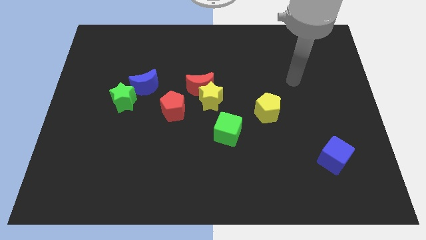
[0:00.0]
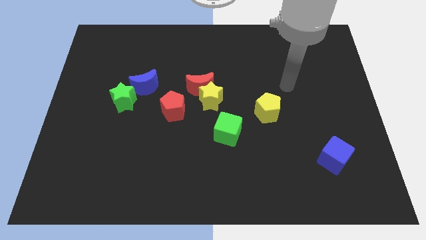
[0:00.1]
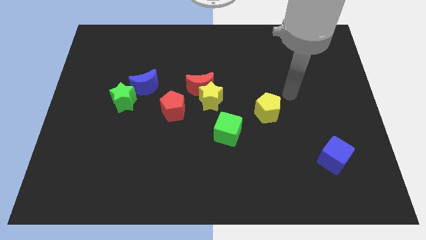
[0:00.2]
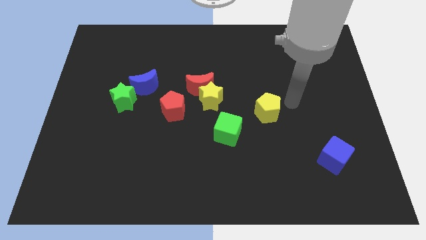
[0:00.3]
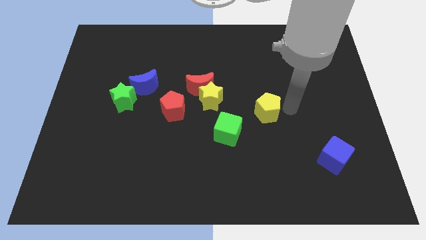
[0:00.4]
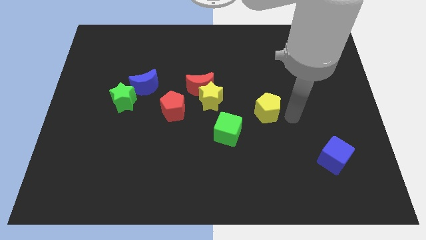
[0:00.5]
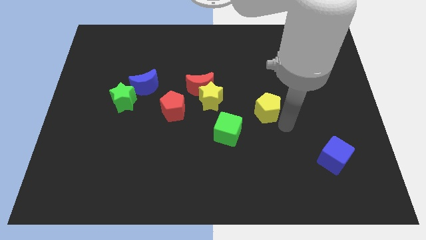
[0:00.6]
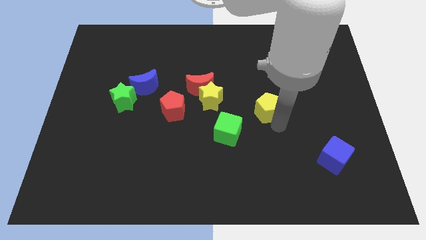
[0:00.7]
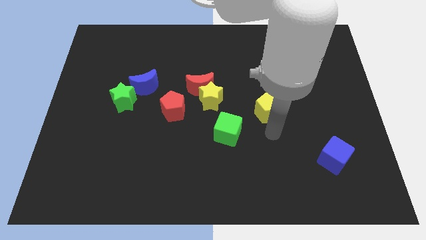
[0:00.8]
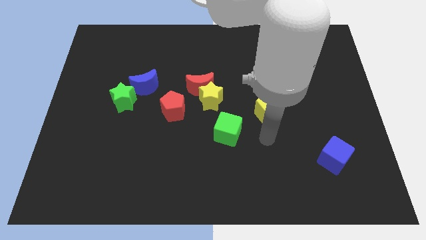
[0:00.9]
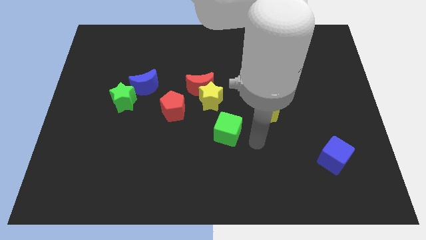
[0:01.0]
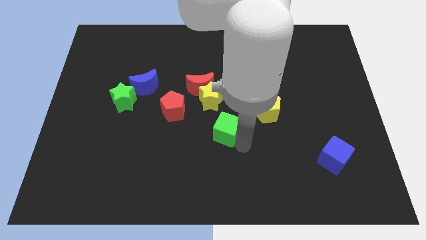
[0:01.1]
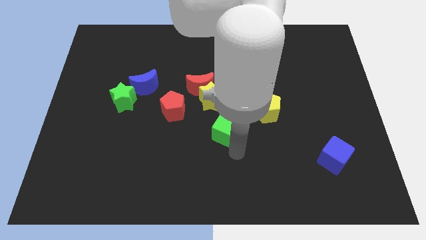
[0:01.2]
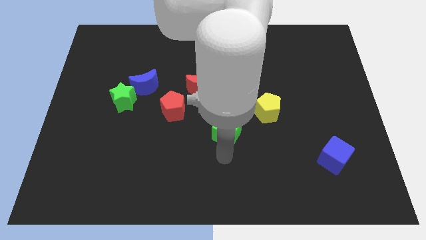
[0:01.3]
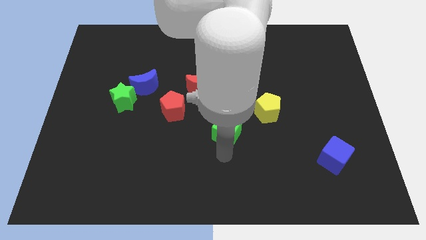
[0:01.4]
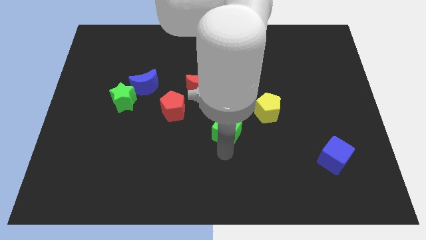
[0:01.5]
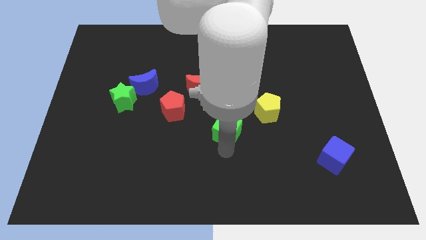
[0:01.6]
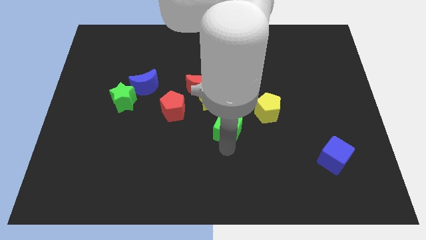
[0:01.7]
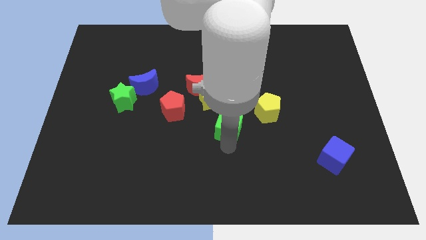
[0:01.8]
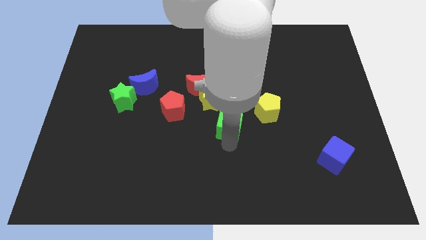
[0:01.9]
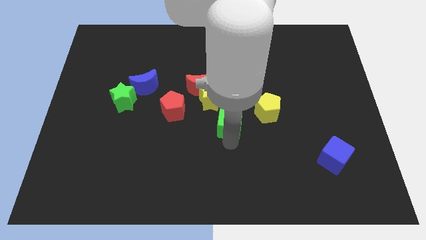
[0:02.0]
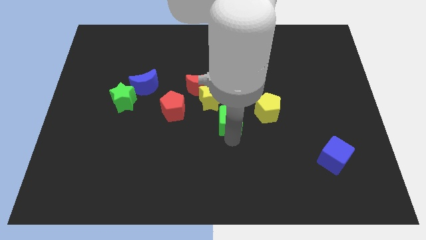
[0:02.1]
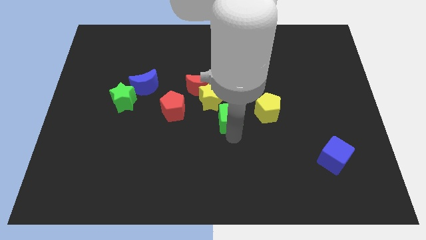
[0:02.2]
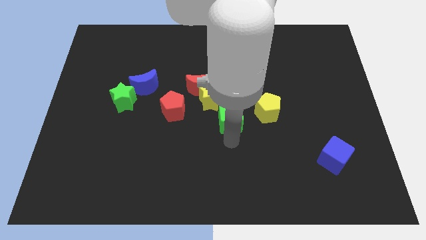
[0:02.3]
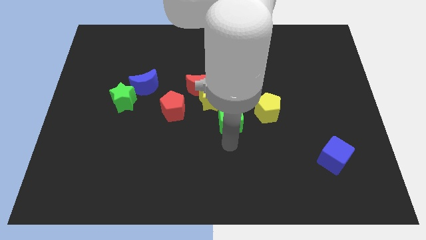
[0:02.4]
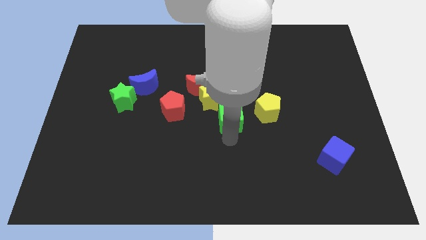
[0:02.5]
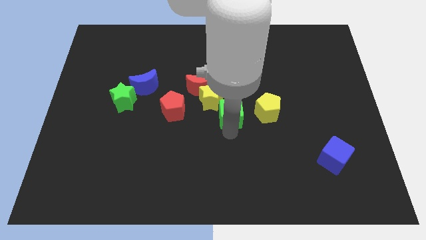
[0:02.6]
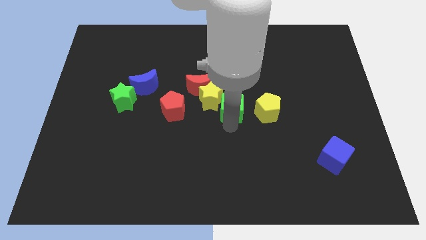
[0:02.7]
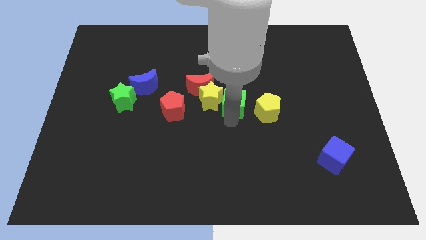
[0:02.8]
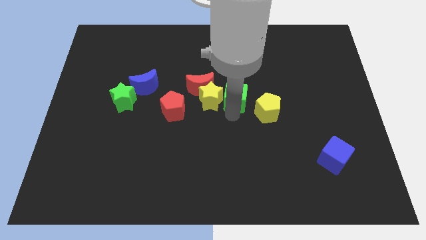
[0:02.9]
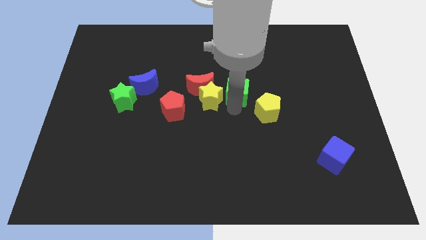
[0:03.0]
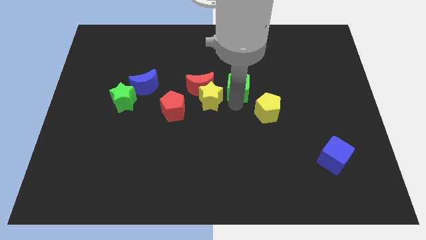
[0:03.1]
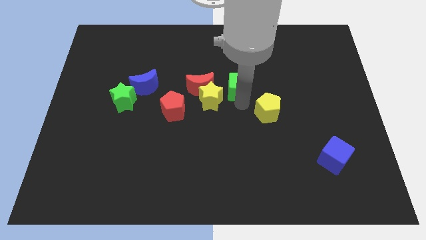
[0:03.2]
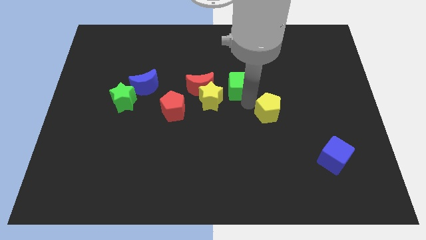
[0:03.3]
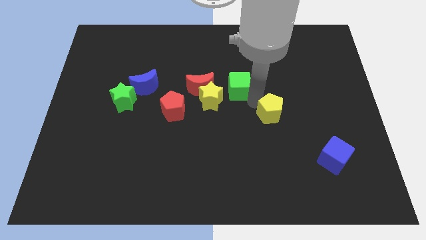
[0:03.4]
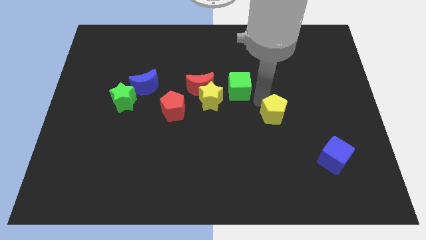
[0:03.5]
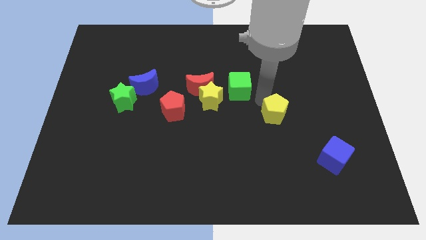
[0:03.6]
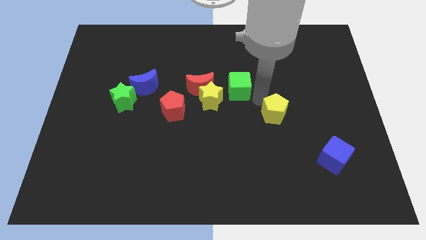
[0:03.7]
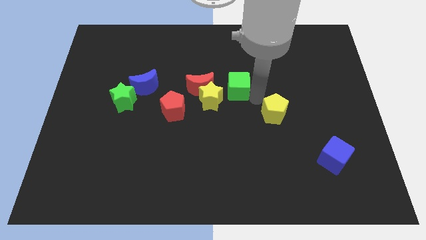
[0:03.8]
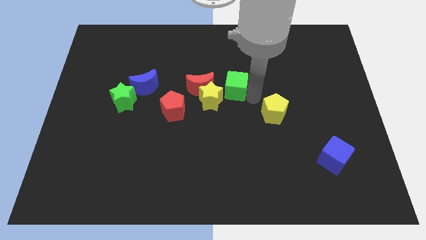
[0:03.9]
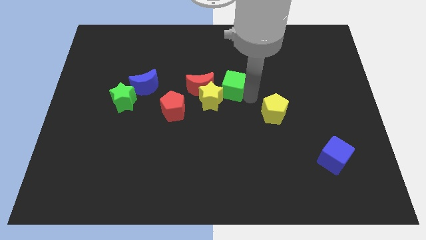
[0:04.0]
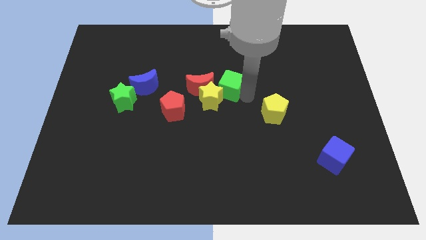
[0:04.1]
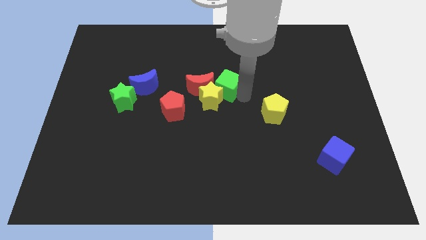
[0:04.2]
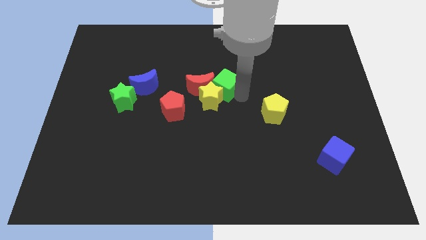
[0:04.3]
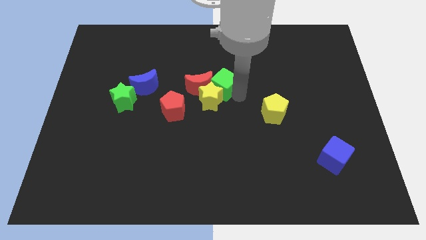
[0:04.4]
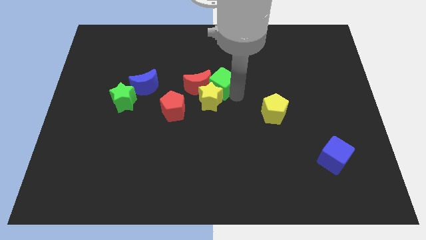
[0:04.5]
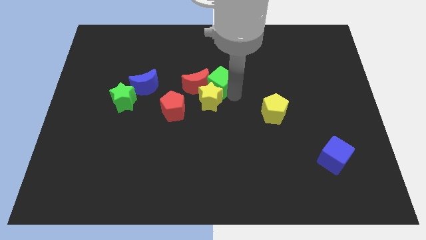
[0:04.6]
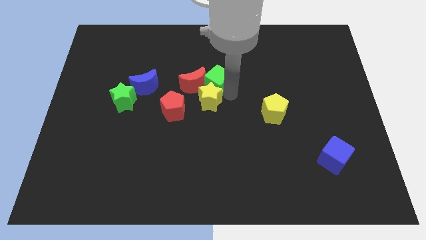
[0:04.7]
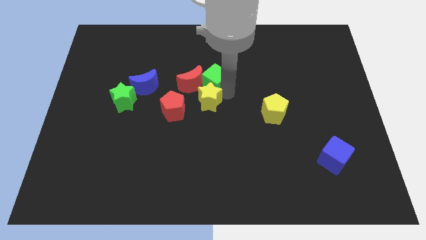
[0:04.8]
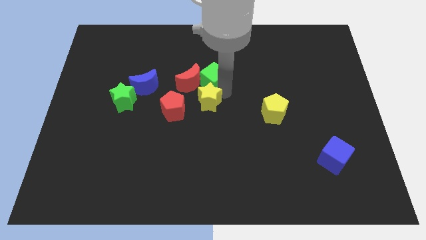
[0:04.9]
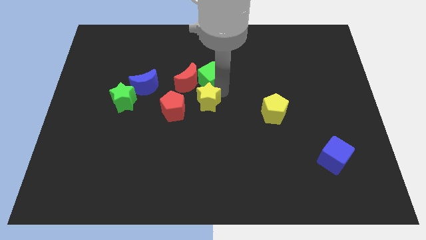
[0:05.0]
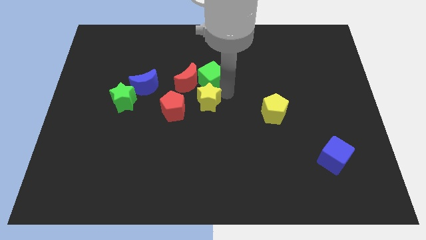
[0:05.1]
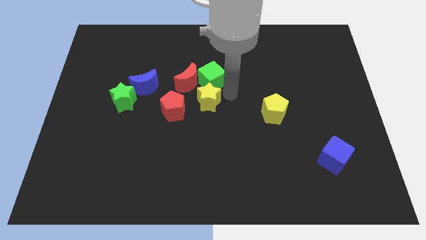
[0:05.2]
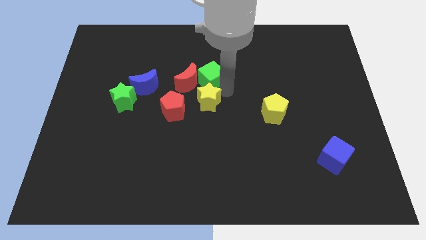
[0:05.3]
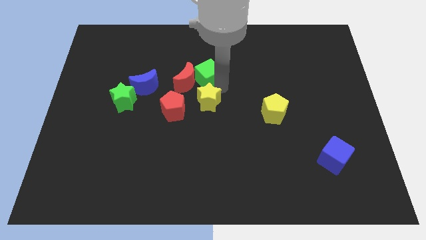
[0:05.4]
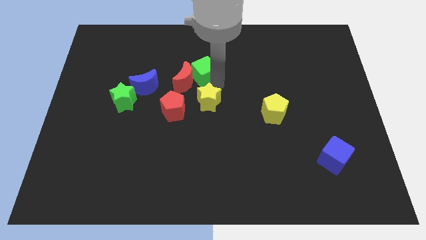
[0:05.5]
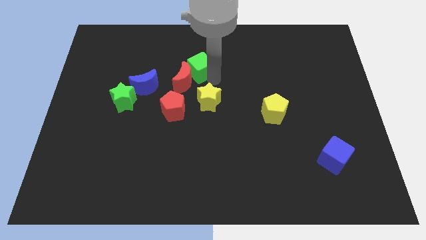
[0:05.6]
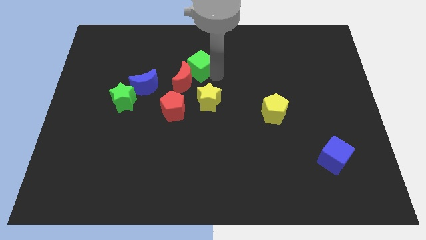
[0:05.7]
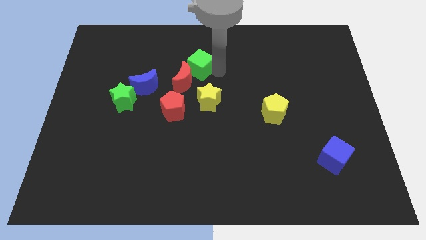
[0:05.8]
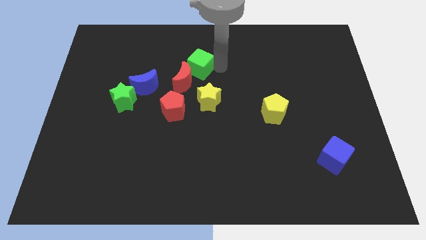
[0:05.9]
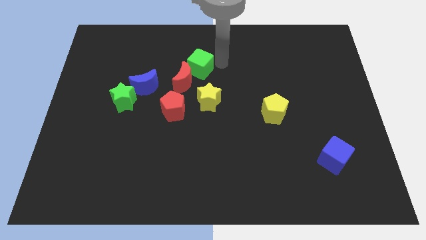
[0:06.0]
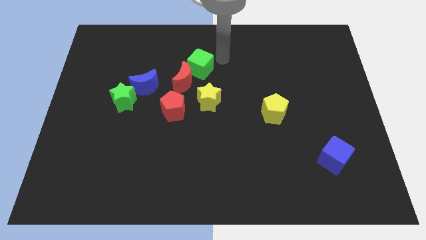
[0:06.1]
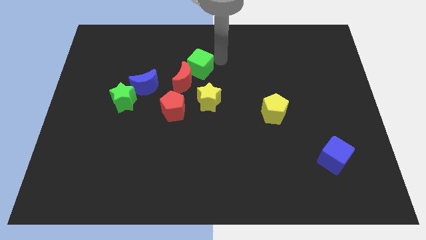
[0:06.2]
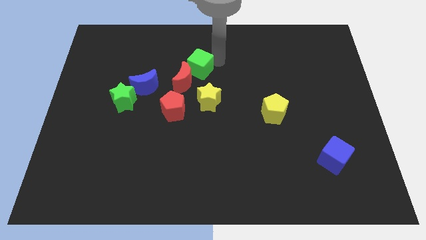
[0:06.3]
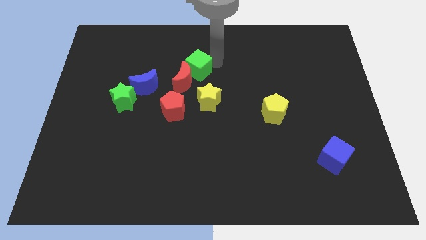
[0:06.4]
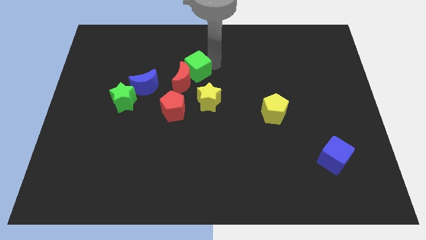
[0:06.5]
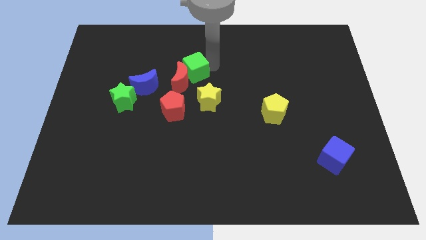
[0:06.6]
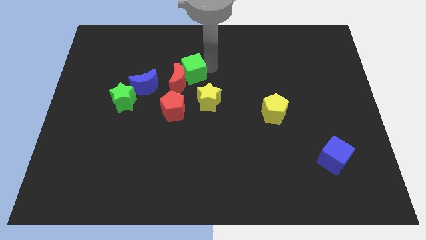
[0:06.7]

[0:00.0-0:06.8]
put the green cube to the top side of the red pentagon
